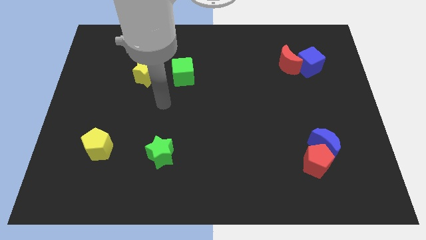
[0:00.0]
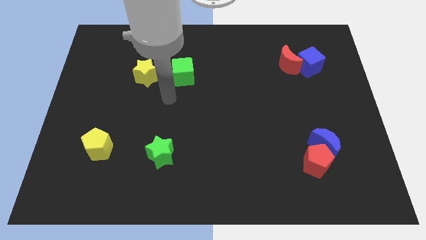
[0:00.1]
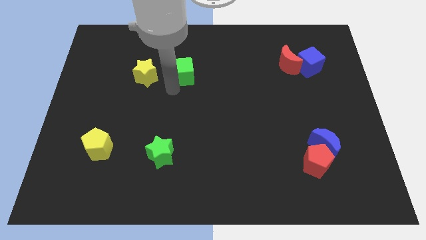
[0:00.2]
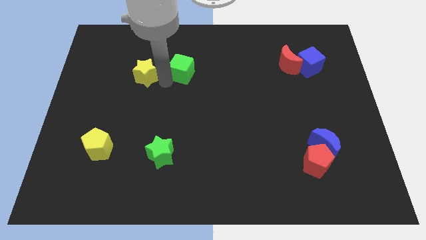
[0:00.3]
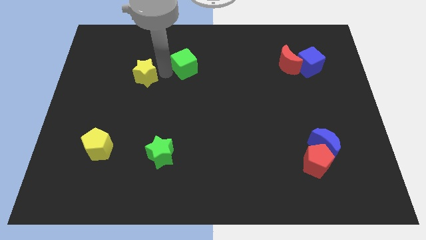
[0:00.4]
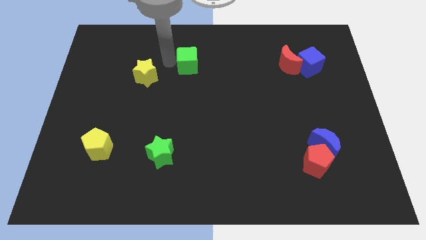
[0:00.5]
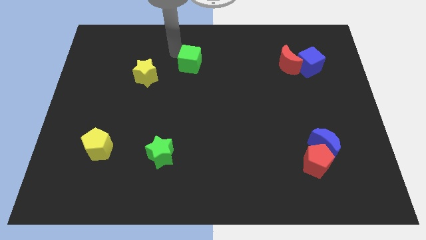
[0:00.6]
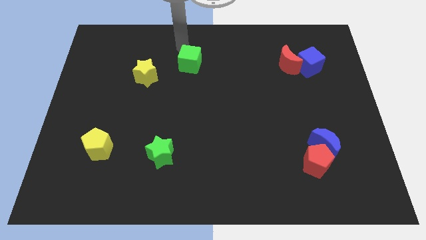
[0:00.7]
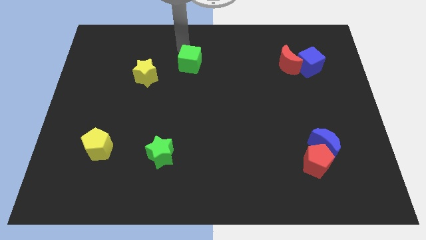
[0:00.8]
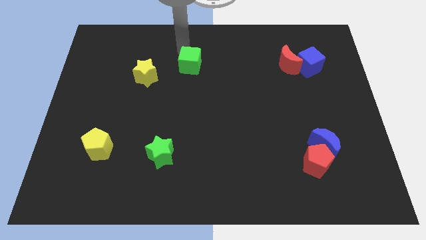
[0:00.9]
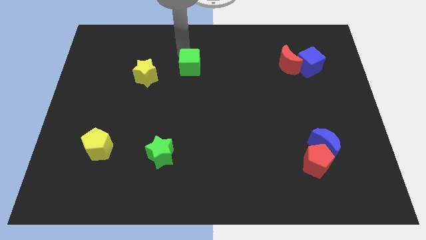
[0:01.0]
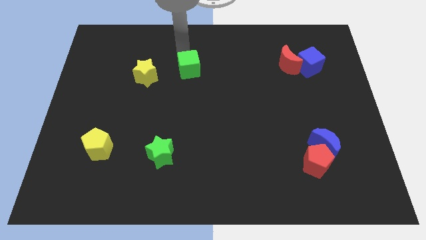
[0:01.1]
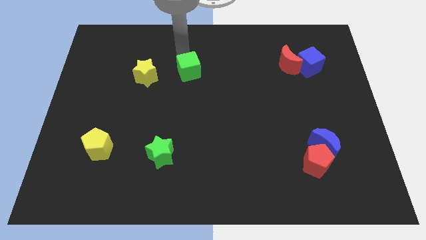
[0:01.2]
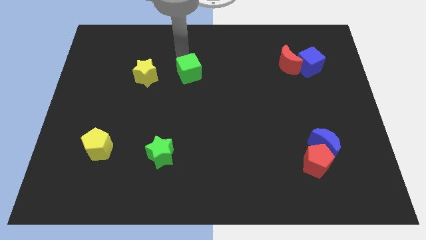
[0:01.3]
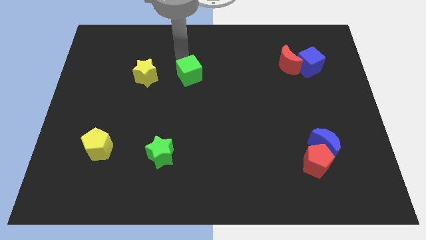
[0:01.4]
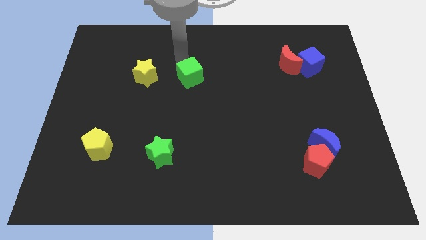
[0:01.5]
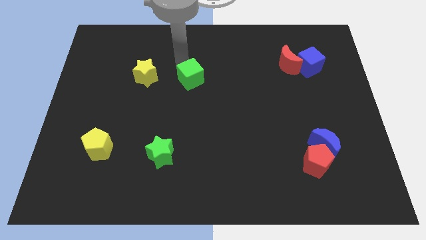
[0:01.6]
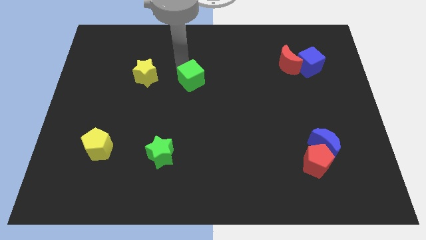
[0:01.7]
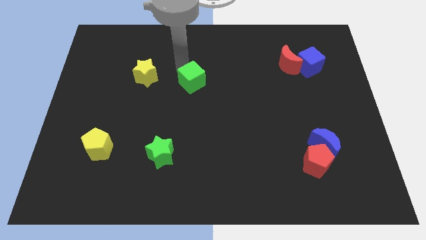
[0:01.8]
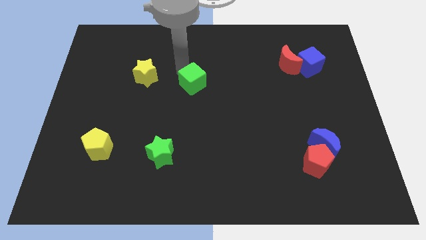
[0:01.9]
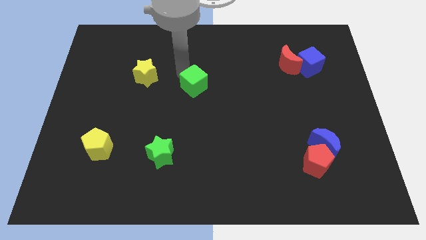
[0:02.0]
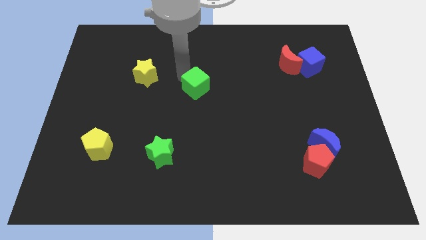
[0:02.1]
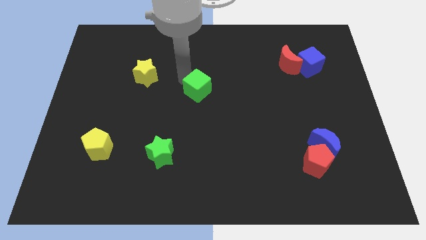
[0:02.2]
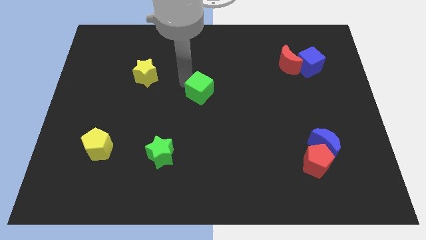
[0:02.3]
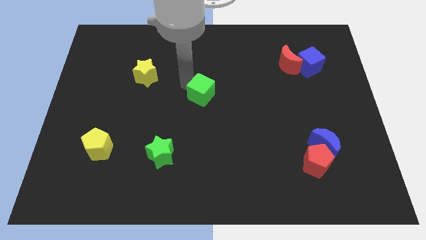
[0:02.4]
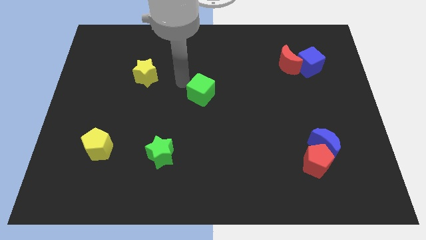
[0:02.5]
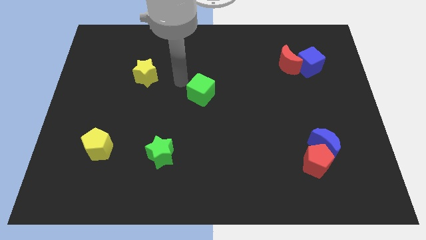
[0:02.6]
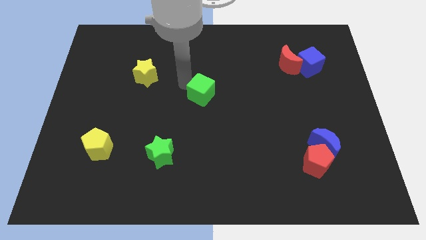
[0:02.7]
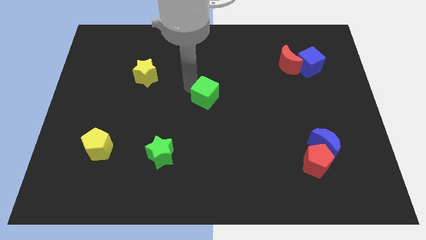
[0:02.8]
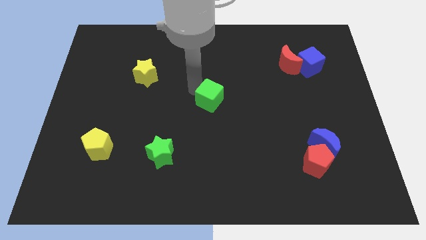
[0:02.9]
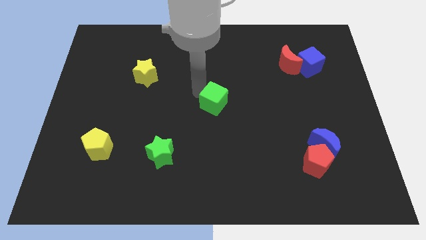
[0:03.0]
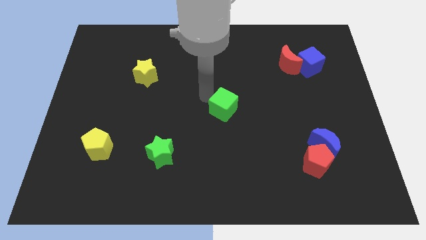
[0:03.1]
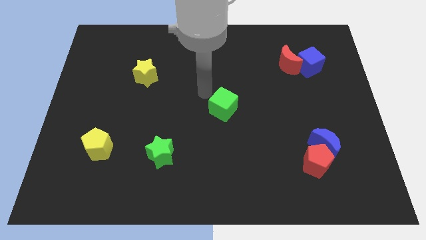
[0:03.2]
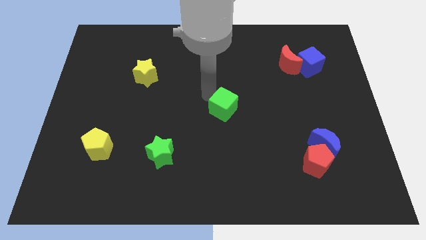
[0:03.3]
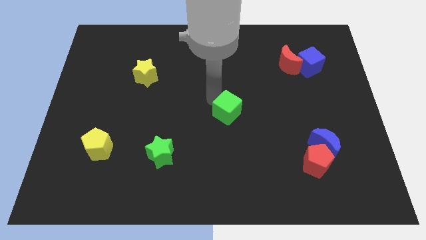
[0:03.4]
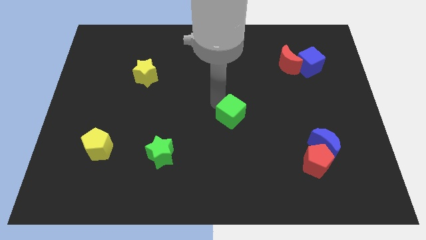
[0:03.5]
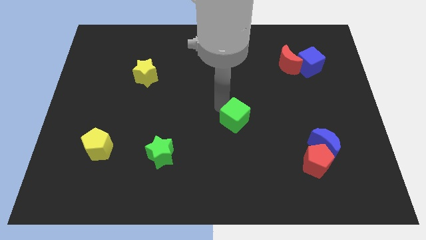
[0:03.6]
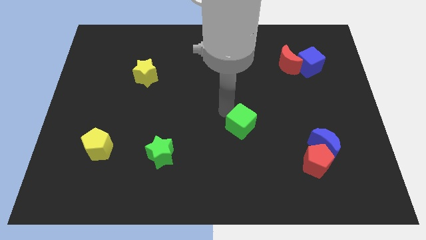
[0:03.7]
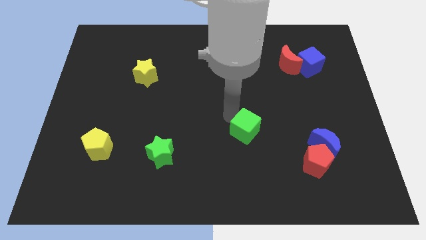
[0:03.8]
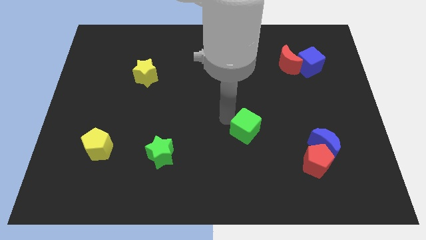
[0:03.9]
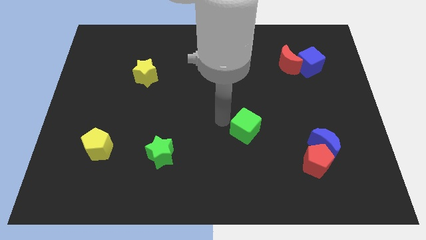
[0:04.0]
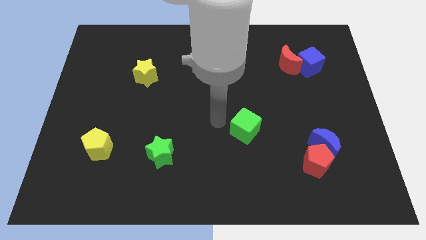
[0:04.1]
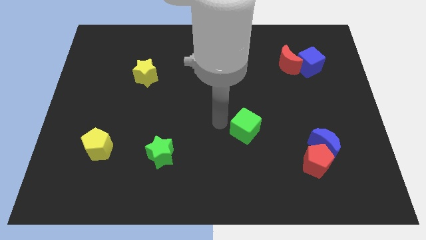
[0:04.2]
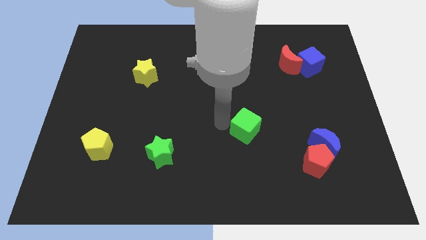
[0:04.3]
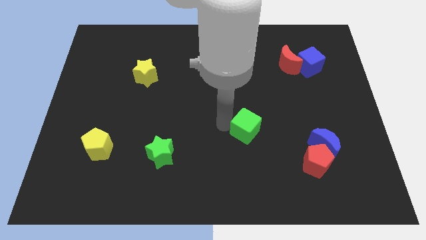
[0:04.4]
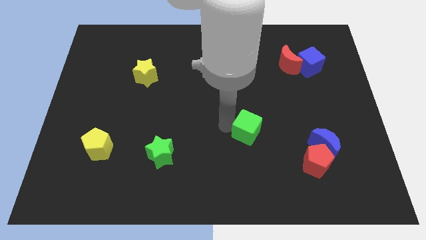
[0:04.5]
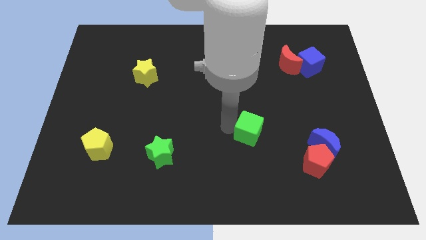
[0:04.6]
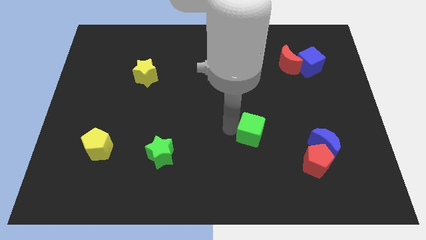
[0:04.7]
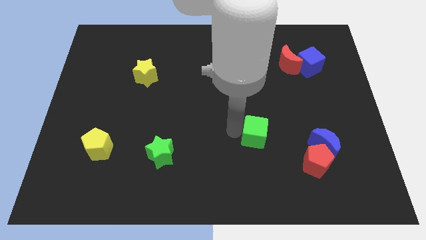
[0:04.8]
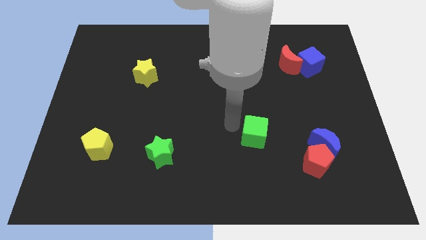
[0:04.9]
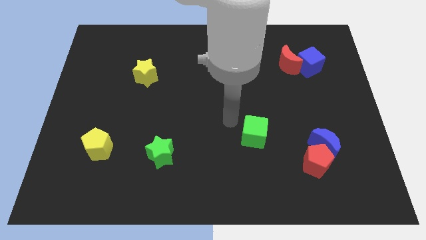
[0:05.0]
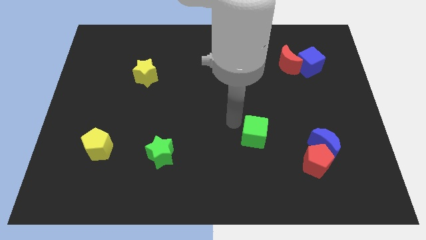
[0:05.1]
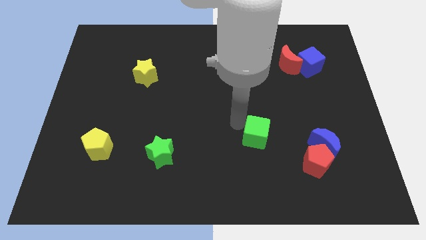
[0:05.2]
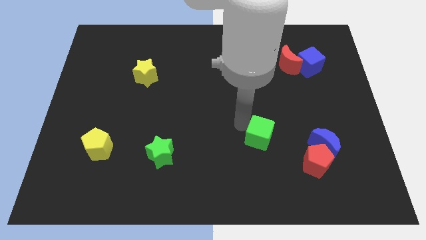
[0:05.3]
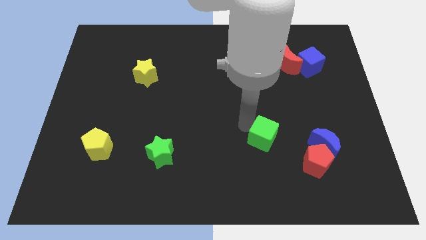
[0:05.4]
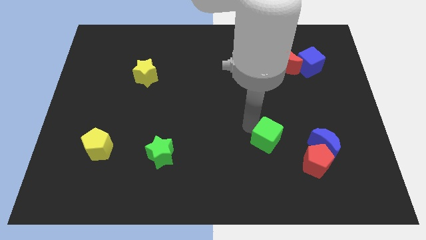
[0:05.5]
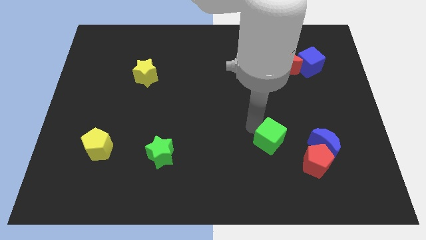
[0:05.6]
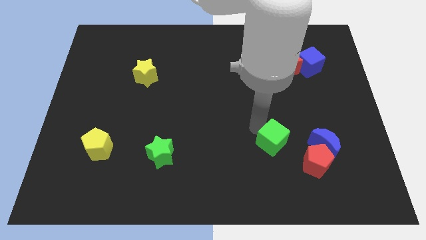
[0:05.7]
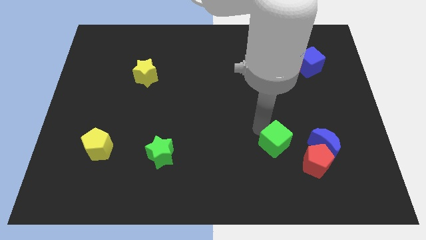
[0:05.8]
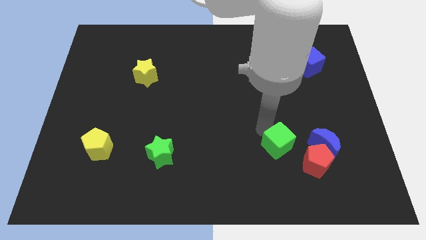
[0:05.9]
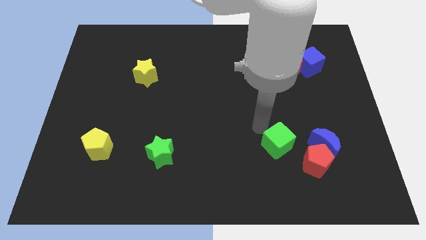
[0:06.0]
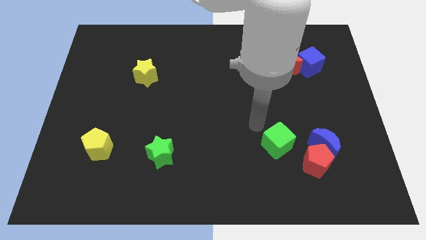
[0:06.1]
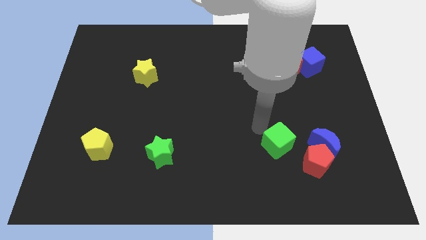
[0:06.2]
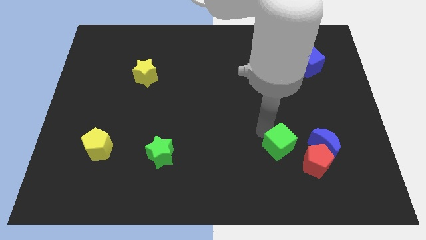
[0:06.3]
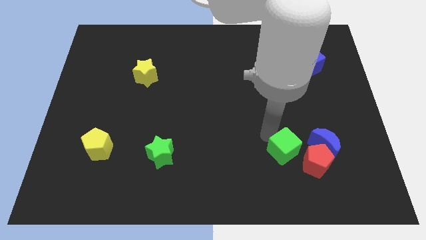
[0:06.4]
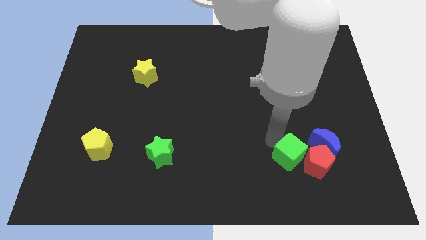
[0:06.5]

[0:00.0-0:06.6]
slide the green cube to the red pentagon

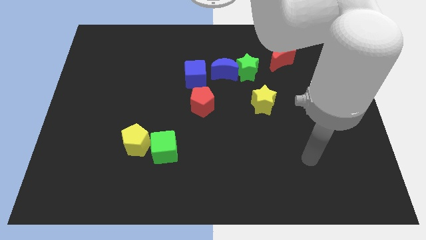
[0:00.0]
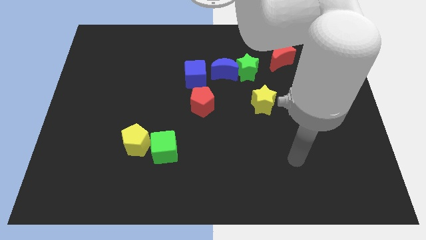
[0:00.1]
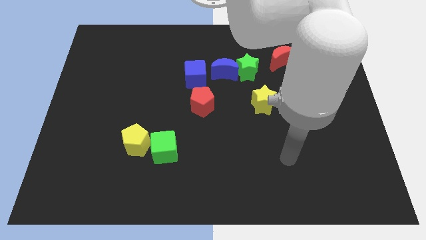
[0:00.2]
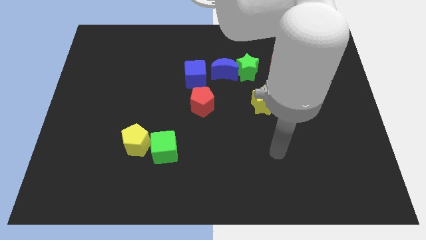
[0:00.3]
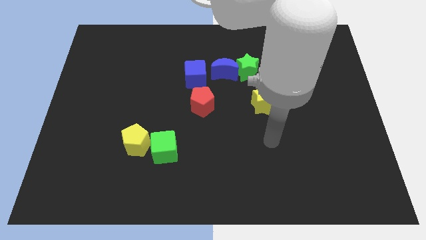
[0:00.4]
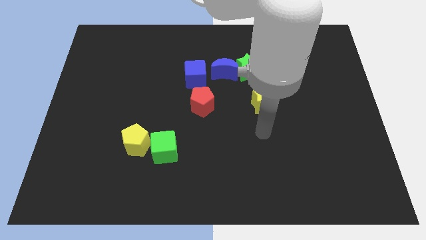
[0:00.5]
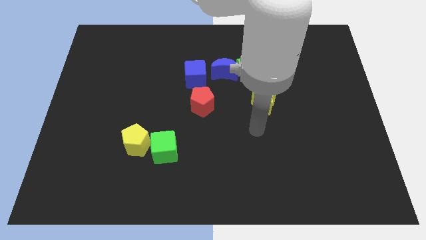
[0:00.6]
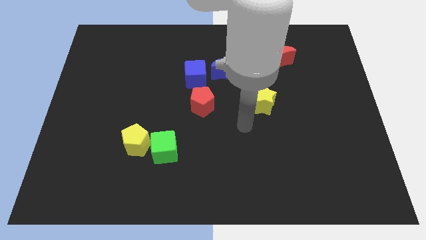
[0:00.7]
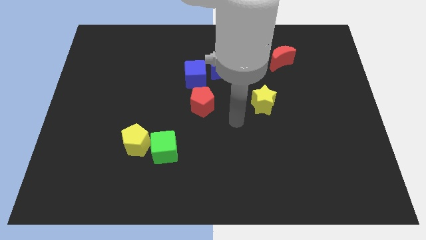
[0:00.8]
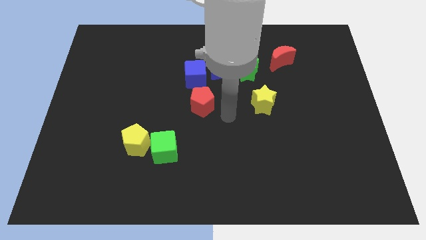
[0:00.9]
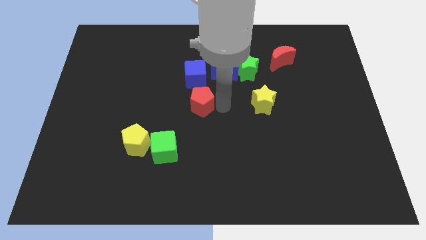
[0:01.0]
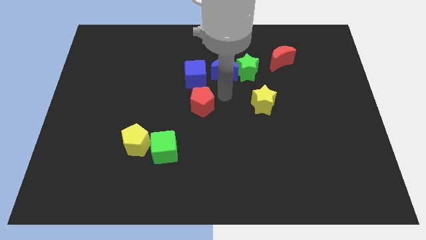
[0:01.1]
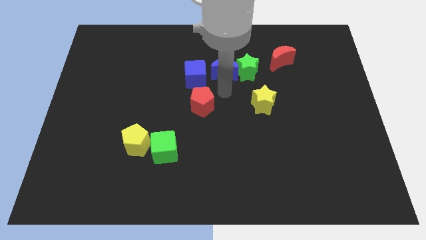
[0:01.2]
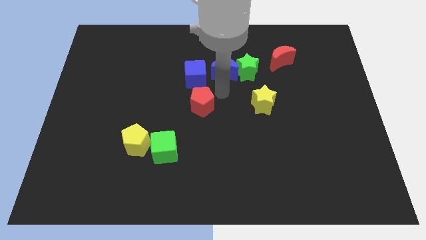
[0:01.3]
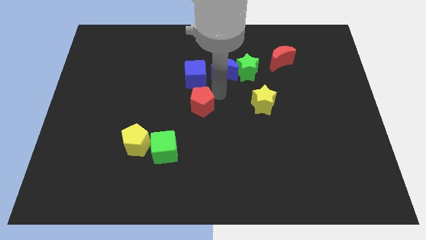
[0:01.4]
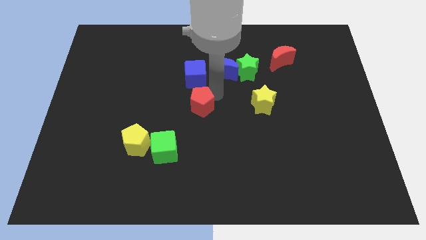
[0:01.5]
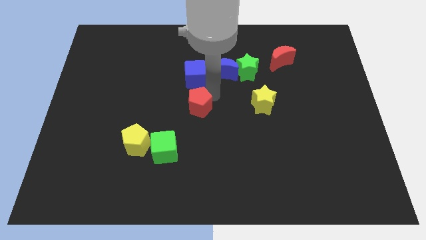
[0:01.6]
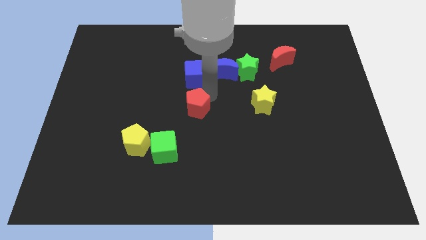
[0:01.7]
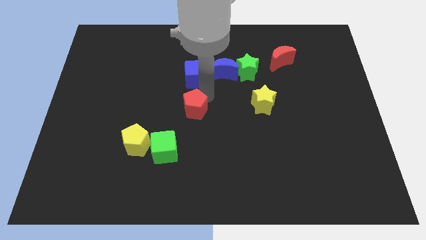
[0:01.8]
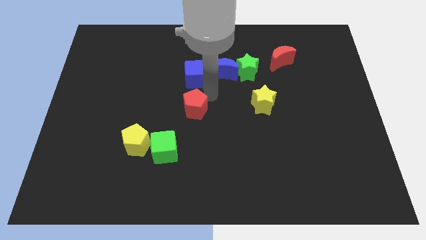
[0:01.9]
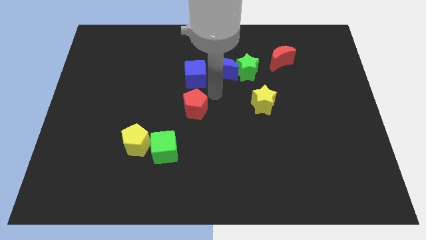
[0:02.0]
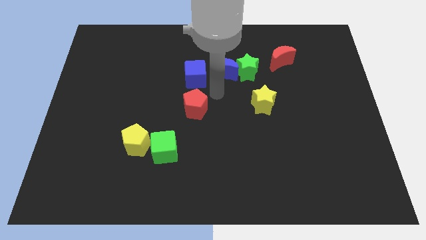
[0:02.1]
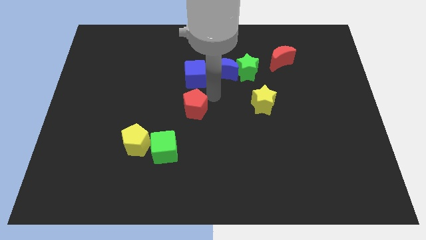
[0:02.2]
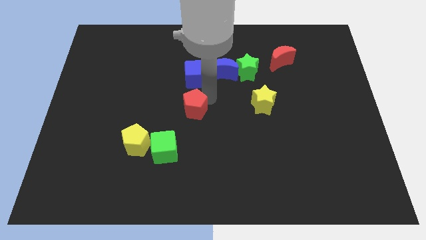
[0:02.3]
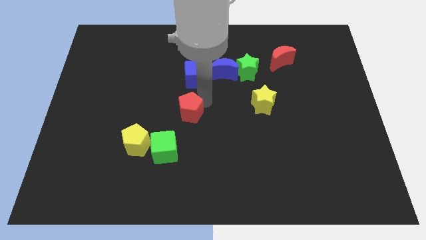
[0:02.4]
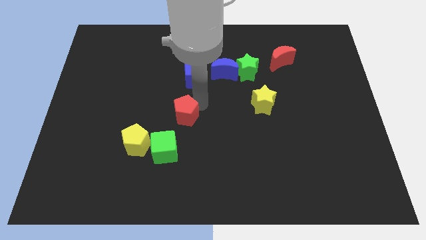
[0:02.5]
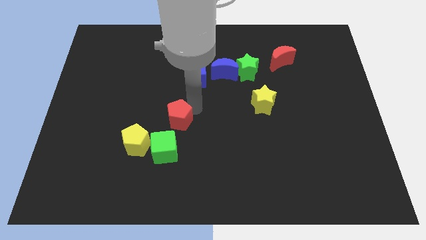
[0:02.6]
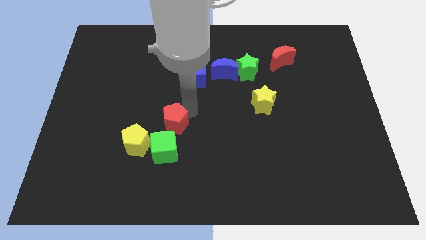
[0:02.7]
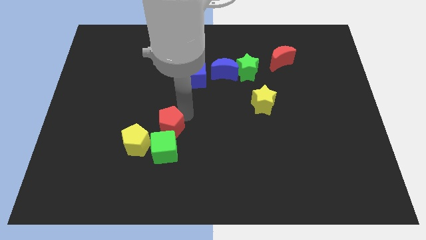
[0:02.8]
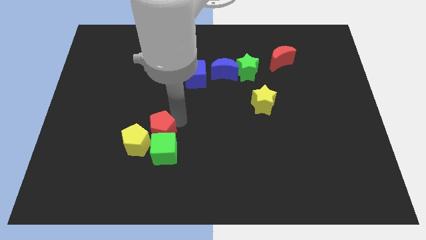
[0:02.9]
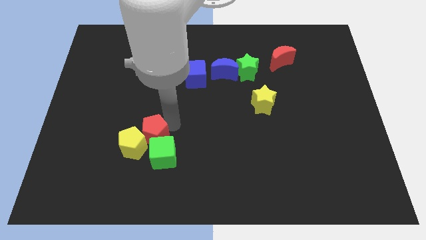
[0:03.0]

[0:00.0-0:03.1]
move the red pentagon towards the yellow pentagon
